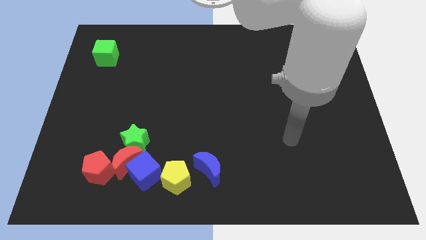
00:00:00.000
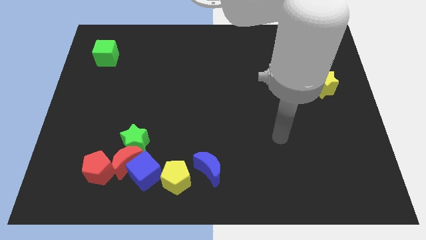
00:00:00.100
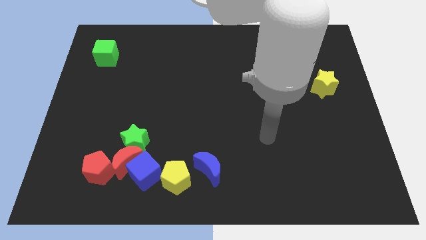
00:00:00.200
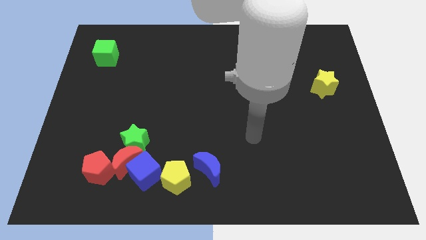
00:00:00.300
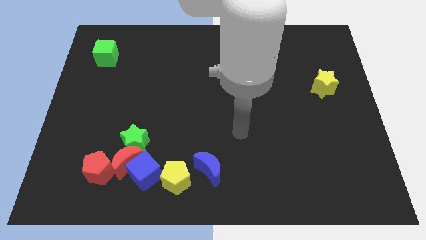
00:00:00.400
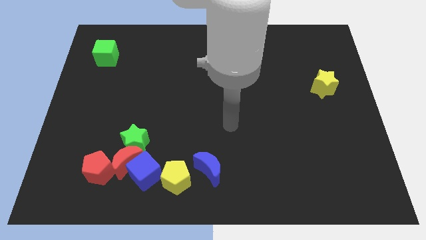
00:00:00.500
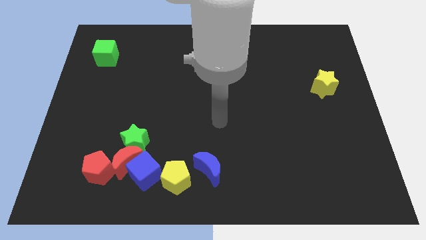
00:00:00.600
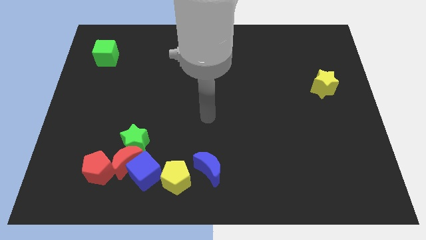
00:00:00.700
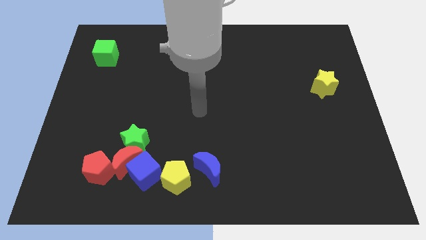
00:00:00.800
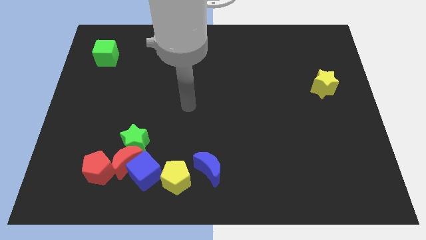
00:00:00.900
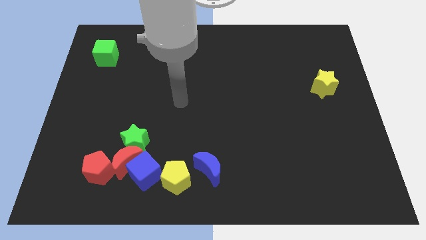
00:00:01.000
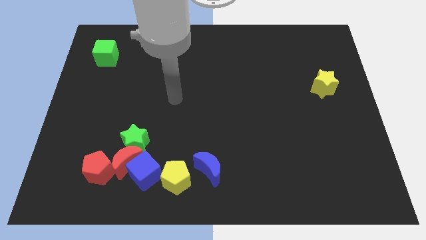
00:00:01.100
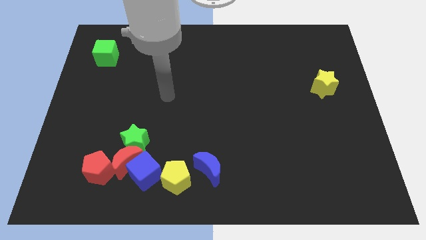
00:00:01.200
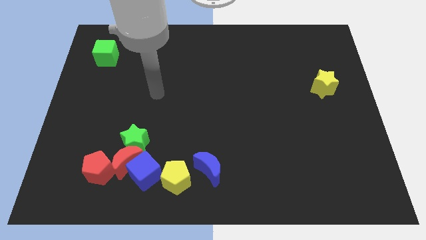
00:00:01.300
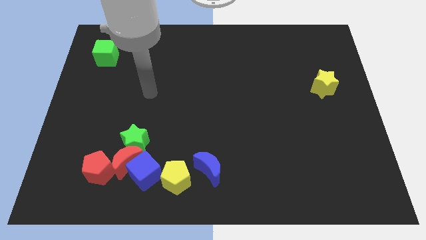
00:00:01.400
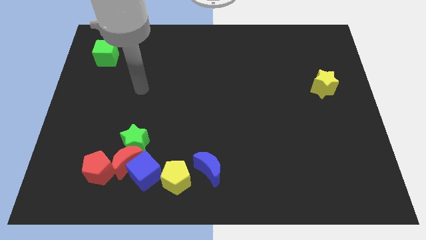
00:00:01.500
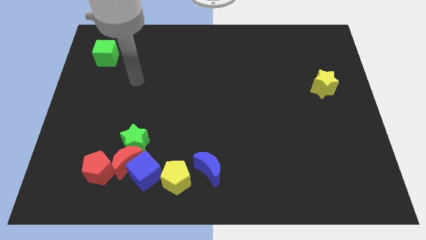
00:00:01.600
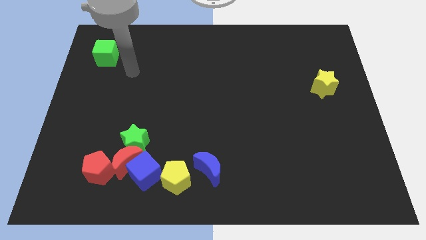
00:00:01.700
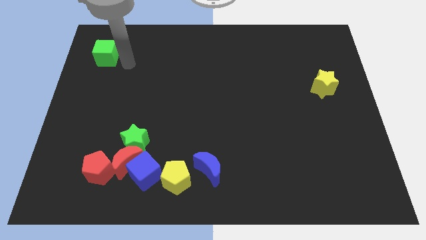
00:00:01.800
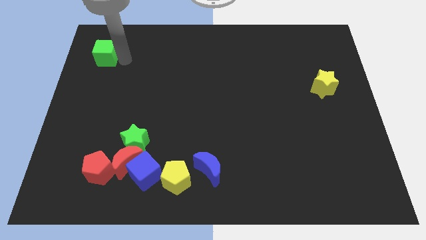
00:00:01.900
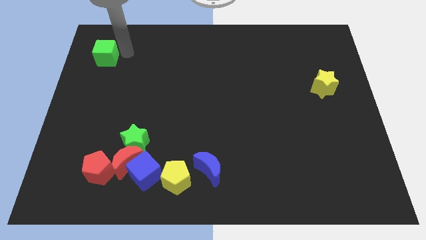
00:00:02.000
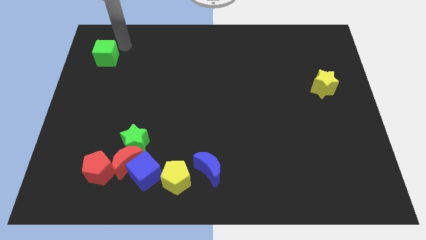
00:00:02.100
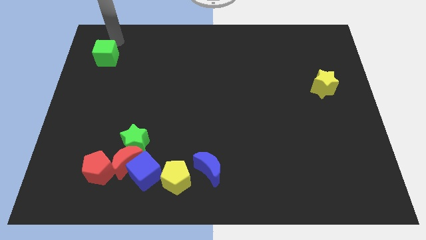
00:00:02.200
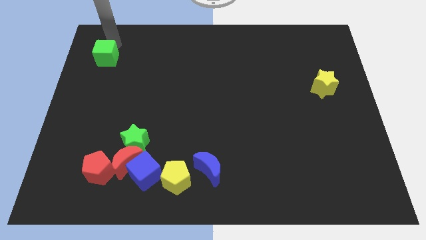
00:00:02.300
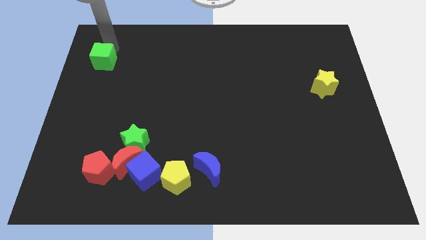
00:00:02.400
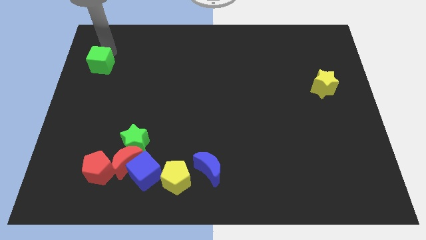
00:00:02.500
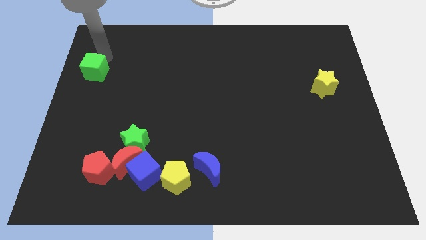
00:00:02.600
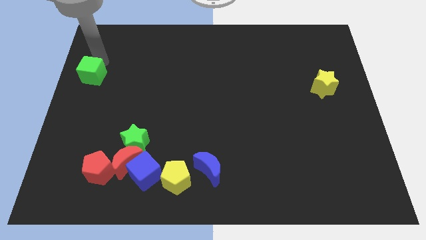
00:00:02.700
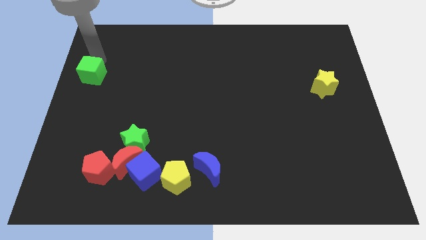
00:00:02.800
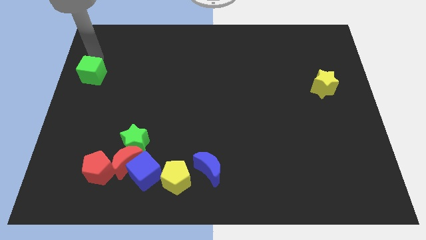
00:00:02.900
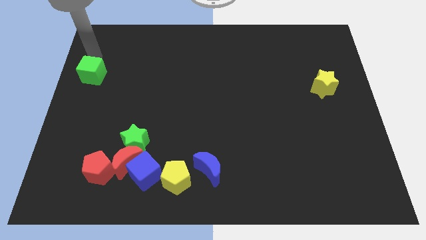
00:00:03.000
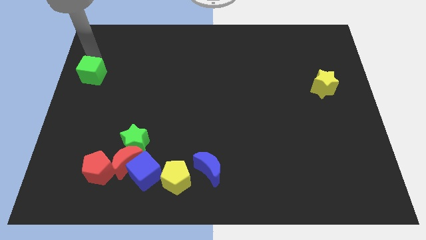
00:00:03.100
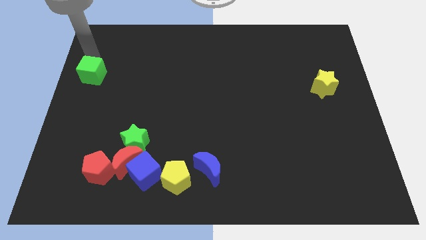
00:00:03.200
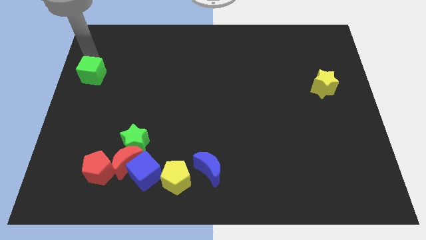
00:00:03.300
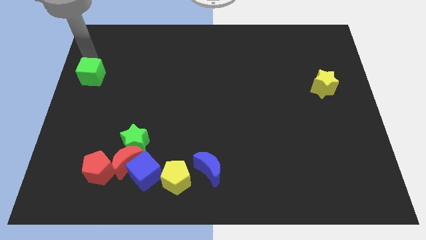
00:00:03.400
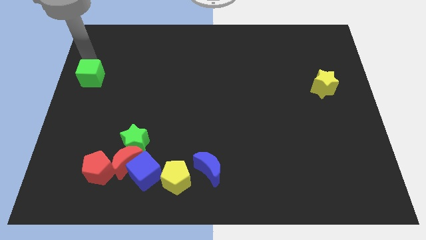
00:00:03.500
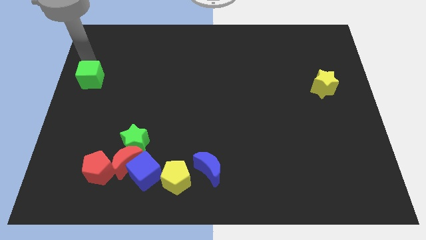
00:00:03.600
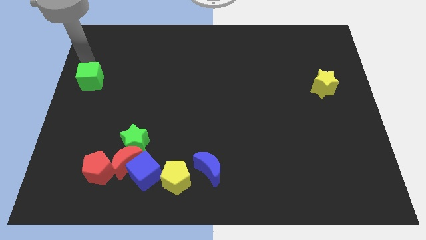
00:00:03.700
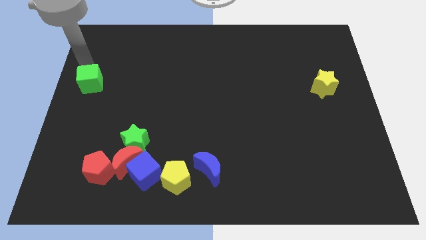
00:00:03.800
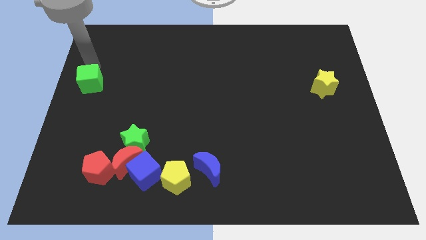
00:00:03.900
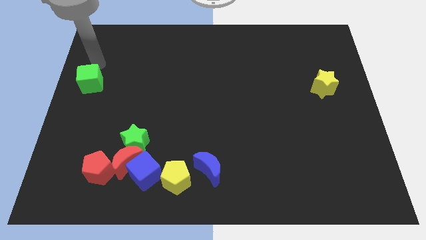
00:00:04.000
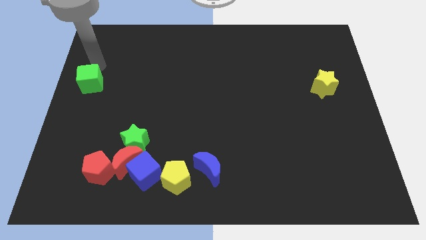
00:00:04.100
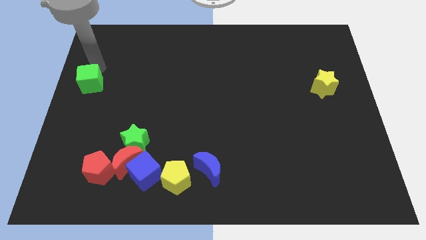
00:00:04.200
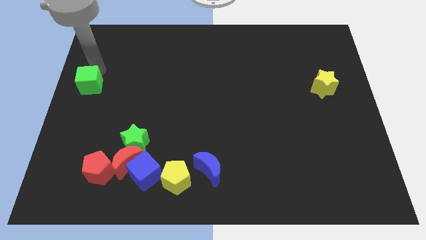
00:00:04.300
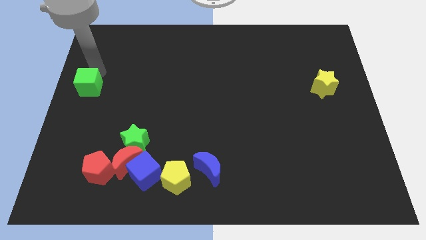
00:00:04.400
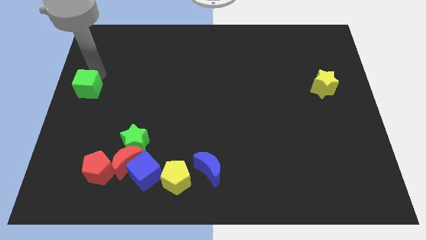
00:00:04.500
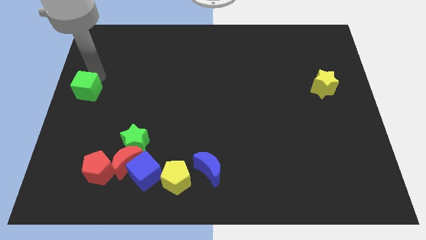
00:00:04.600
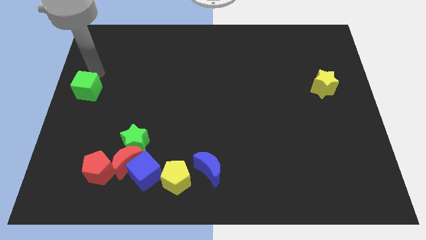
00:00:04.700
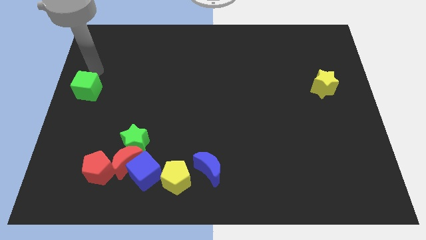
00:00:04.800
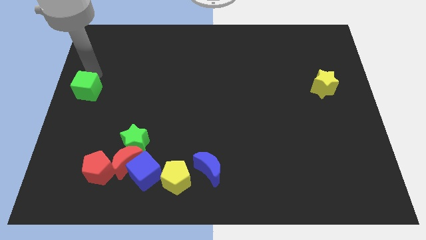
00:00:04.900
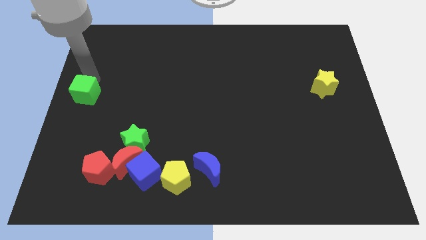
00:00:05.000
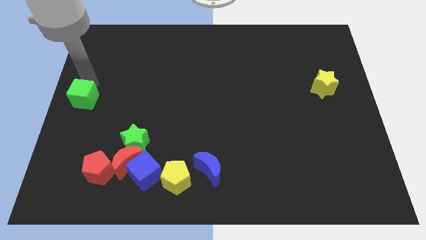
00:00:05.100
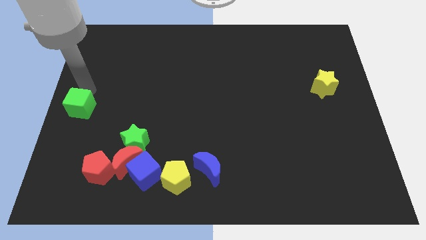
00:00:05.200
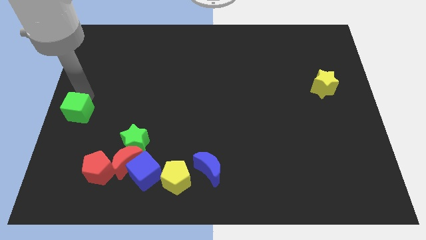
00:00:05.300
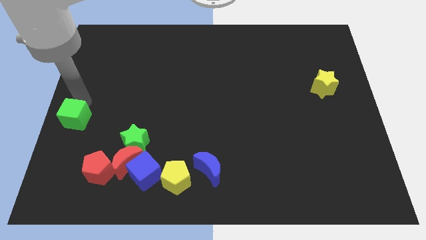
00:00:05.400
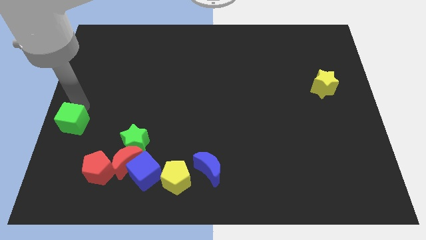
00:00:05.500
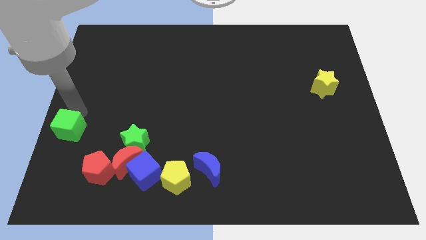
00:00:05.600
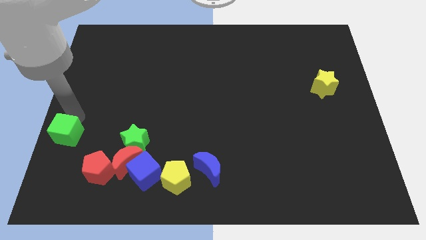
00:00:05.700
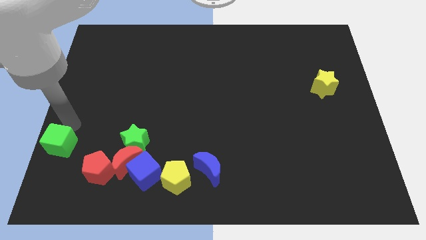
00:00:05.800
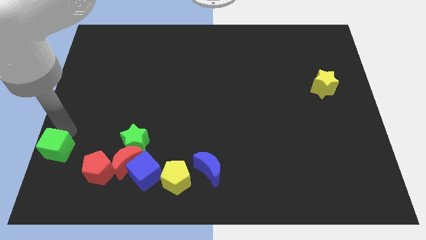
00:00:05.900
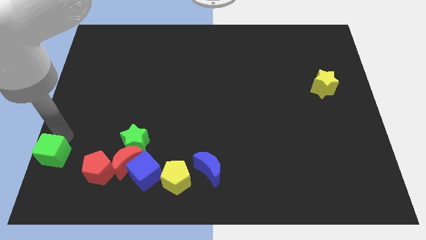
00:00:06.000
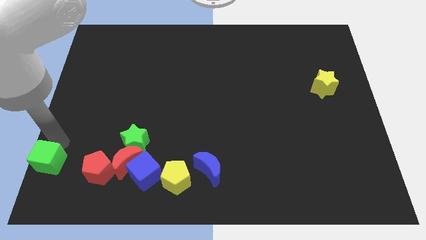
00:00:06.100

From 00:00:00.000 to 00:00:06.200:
push the green cube to the bottom left corner
